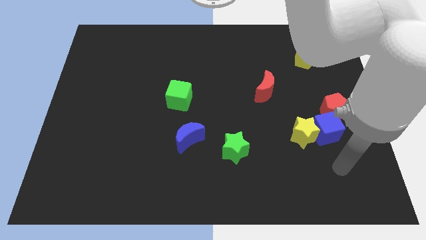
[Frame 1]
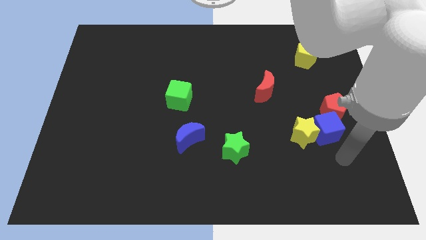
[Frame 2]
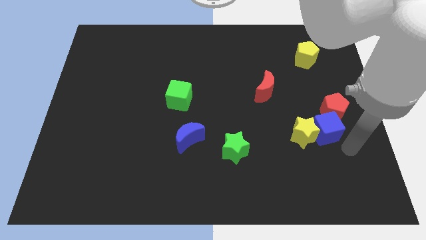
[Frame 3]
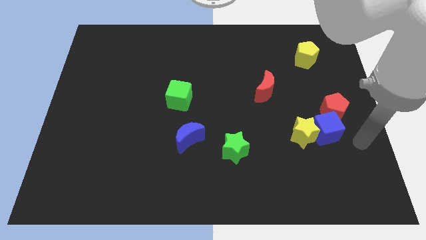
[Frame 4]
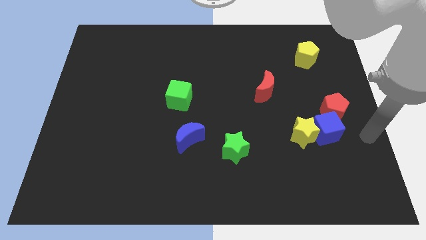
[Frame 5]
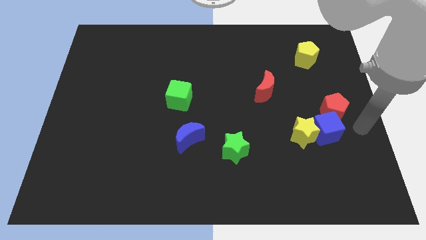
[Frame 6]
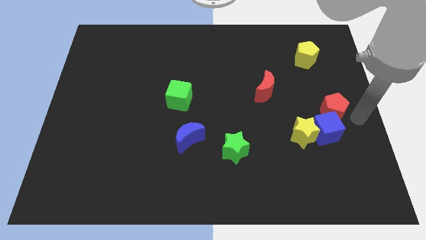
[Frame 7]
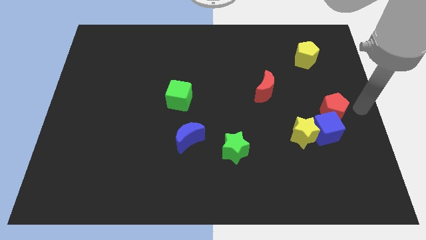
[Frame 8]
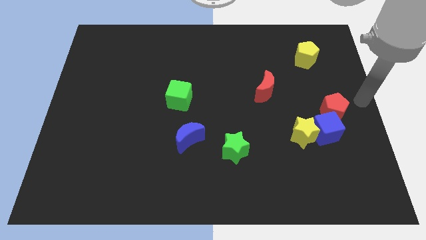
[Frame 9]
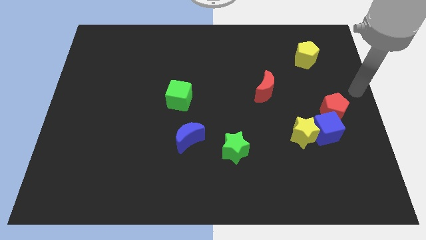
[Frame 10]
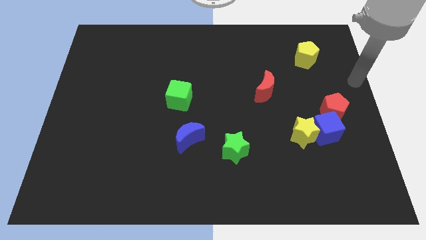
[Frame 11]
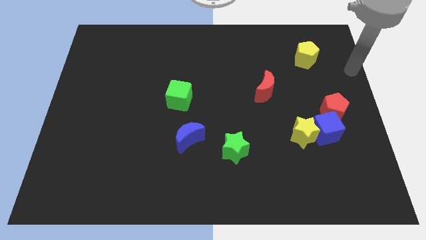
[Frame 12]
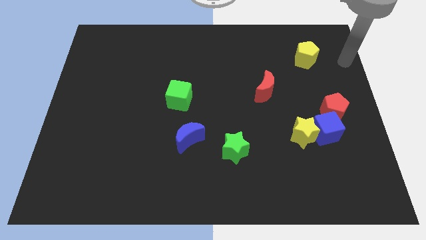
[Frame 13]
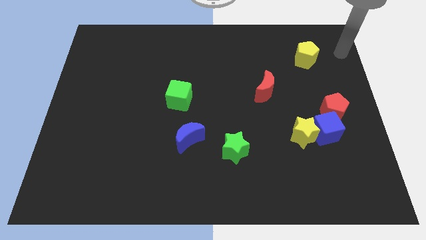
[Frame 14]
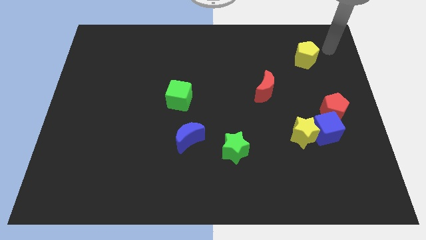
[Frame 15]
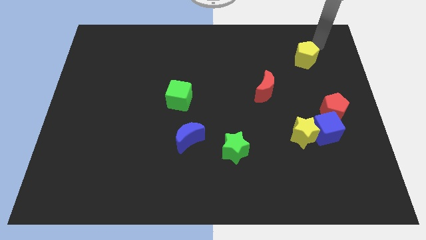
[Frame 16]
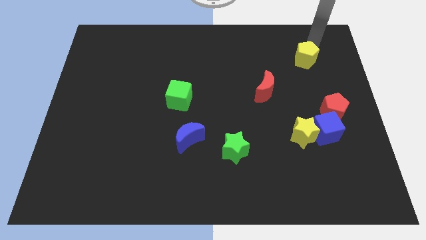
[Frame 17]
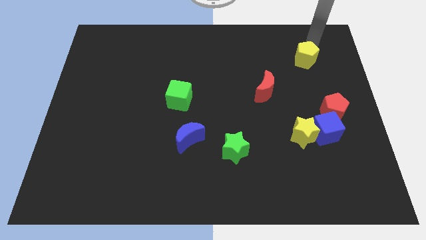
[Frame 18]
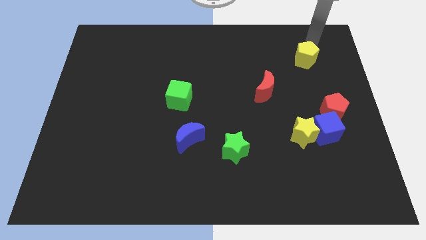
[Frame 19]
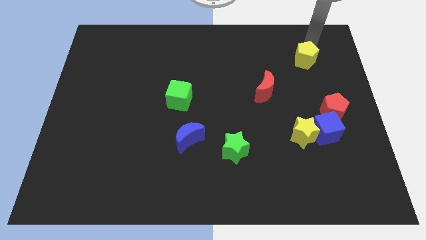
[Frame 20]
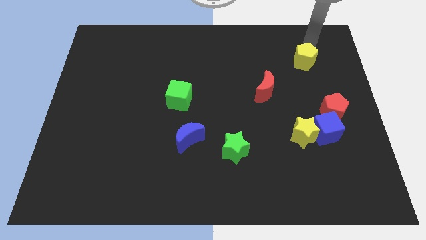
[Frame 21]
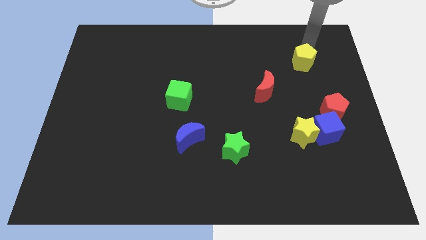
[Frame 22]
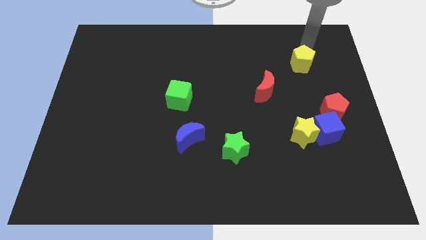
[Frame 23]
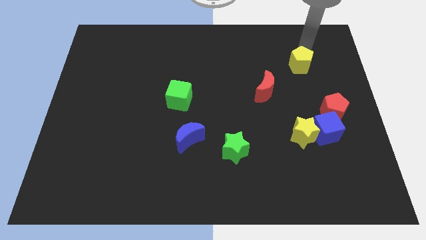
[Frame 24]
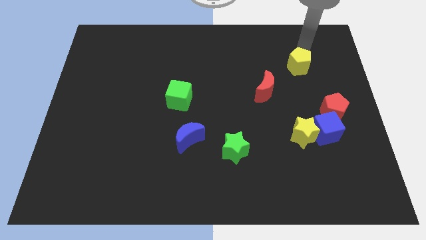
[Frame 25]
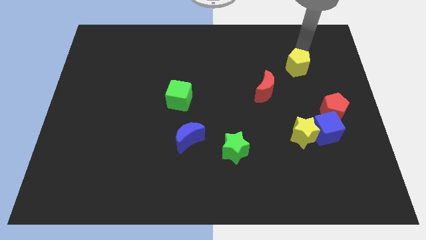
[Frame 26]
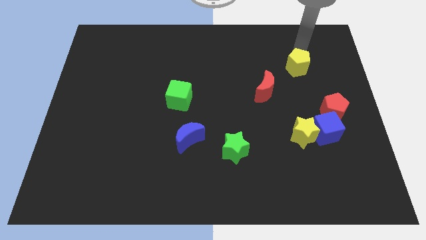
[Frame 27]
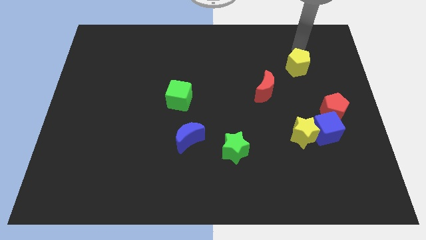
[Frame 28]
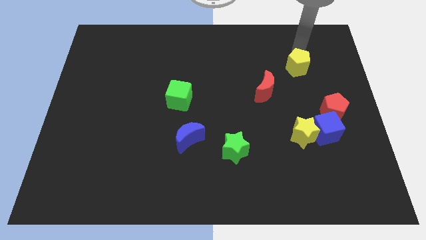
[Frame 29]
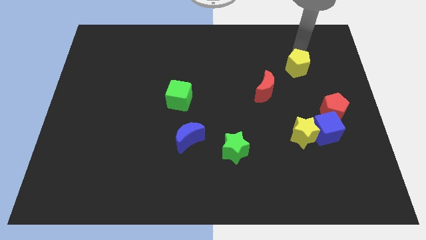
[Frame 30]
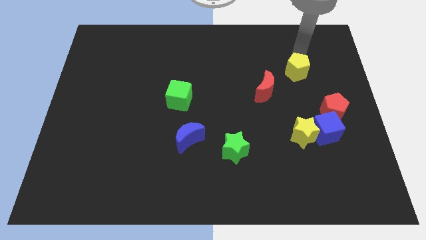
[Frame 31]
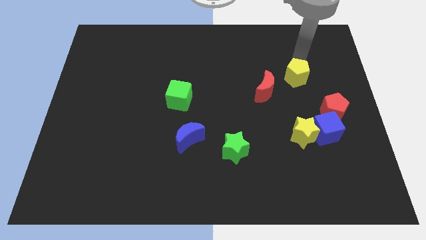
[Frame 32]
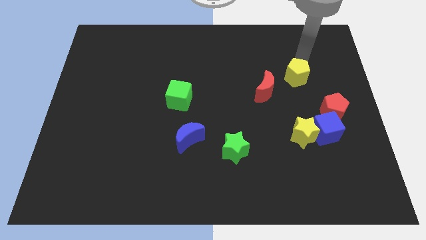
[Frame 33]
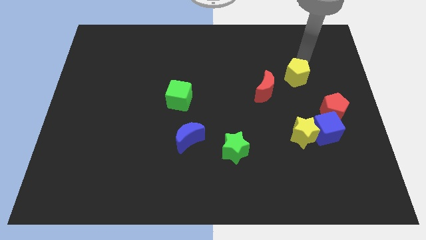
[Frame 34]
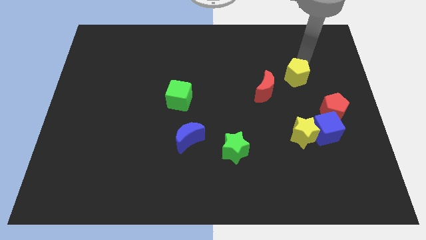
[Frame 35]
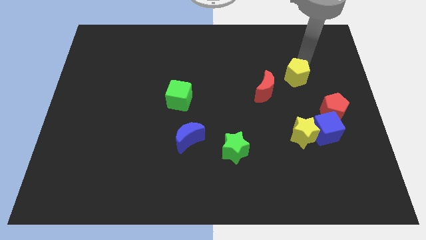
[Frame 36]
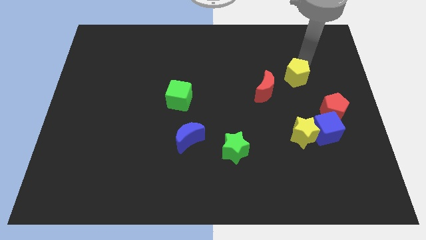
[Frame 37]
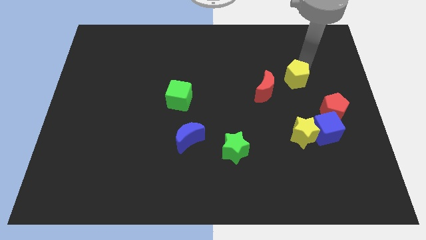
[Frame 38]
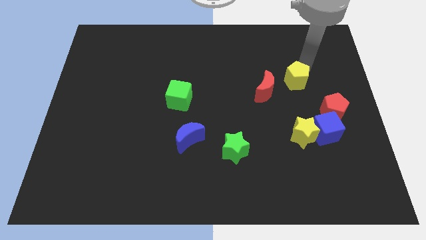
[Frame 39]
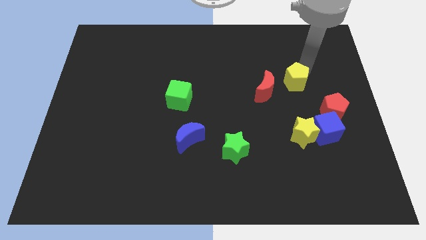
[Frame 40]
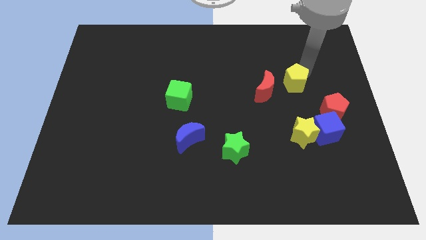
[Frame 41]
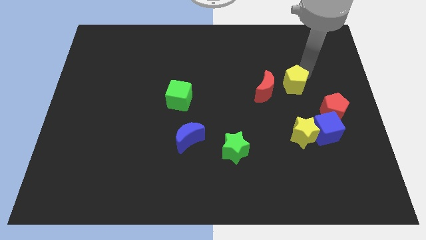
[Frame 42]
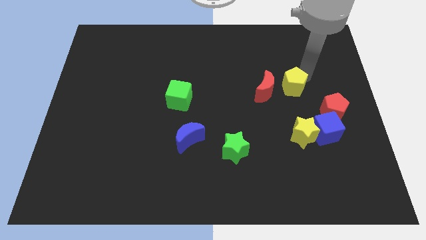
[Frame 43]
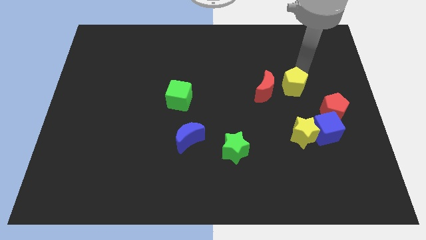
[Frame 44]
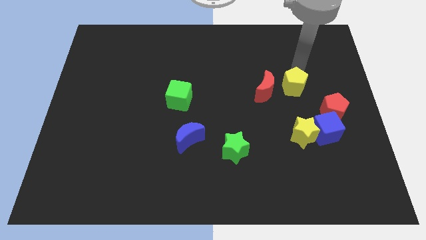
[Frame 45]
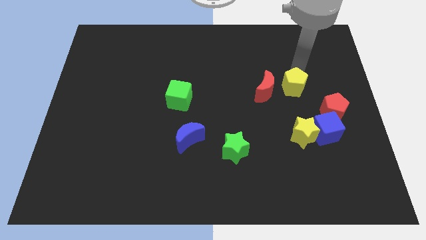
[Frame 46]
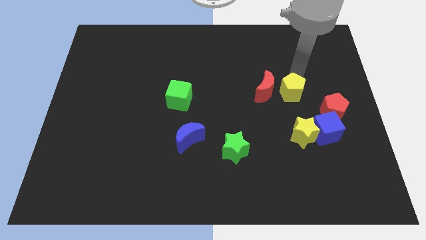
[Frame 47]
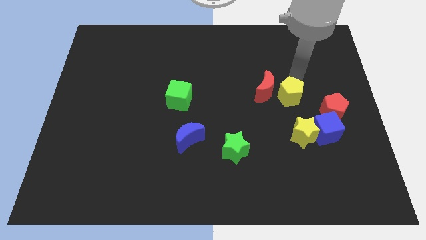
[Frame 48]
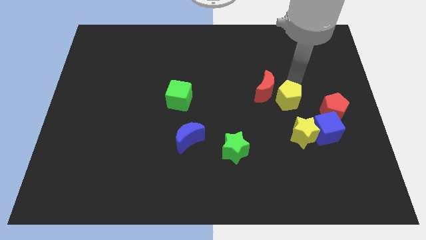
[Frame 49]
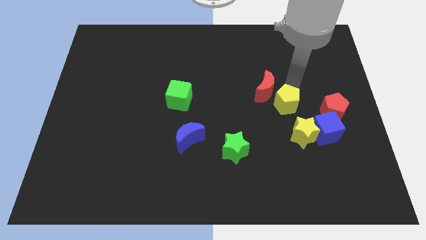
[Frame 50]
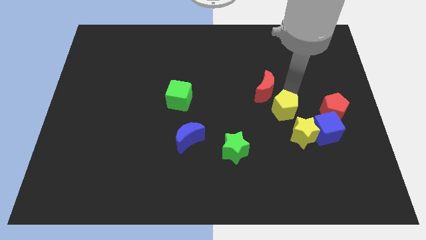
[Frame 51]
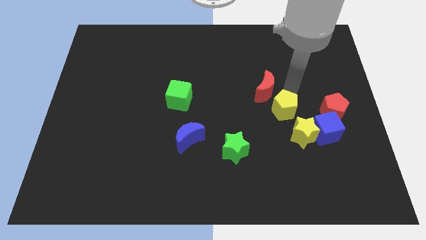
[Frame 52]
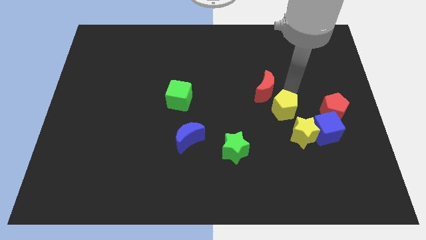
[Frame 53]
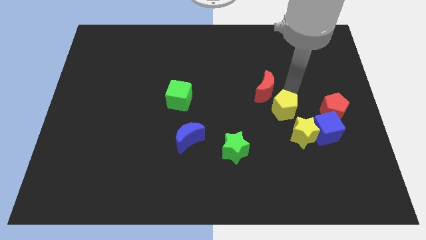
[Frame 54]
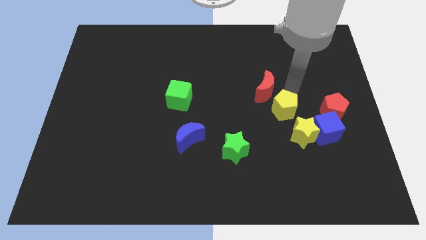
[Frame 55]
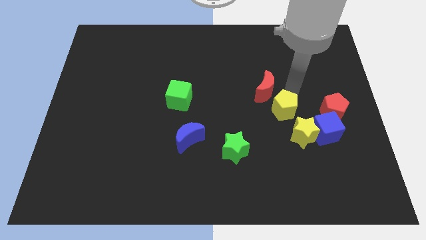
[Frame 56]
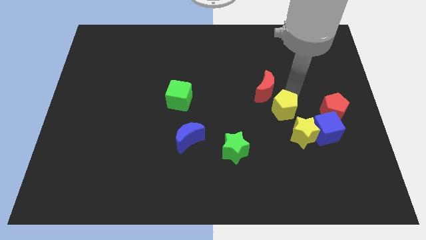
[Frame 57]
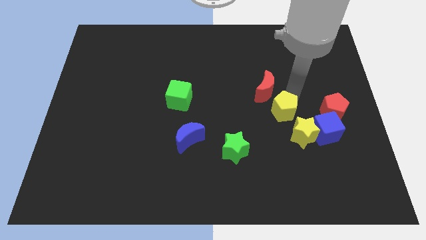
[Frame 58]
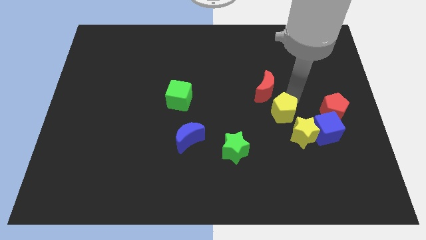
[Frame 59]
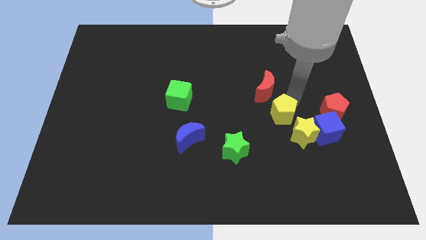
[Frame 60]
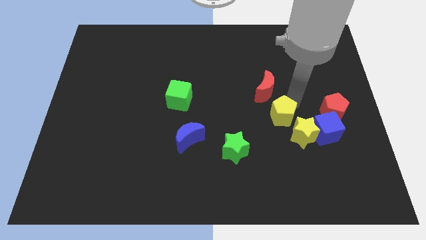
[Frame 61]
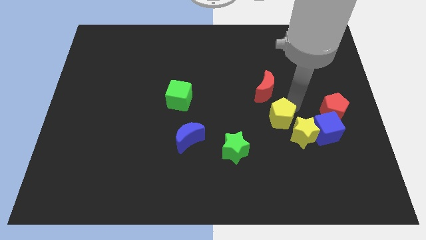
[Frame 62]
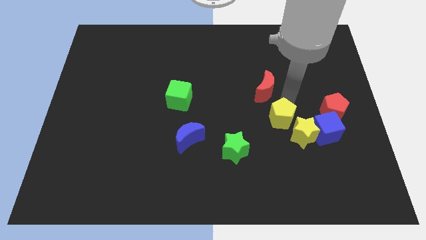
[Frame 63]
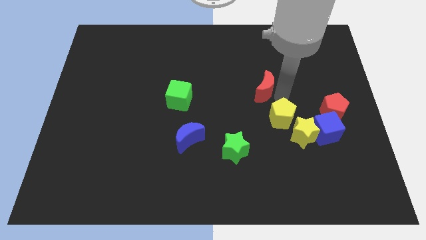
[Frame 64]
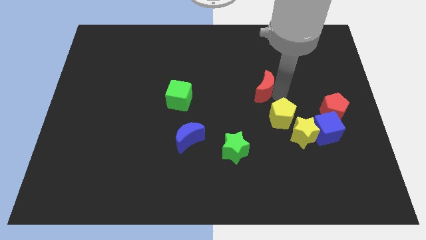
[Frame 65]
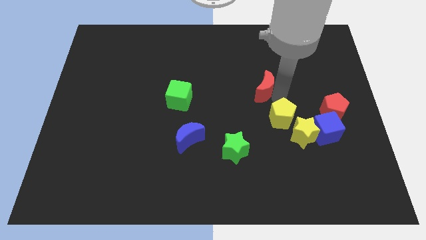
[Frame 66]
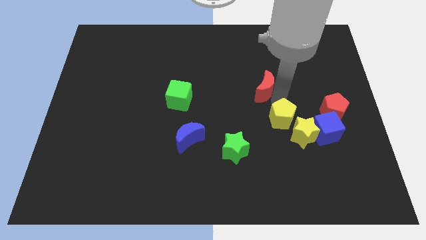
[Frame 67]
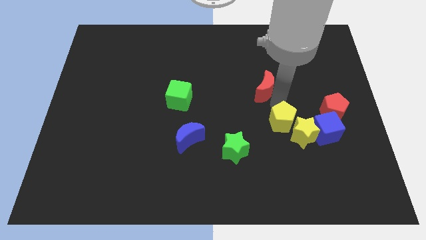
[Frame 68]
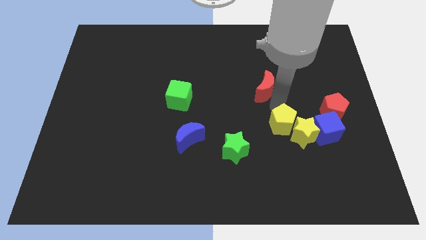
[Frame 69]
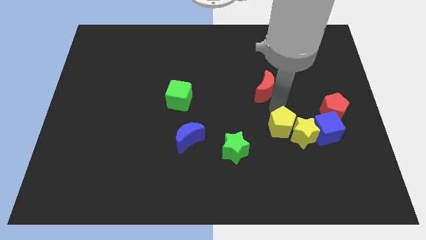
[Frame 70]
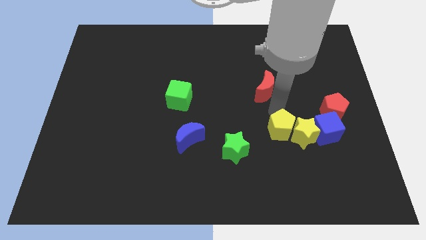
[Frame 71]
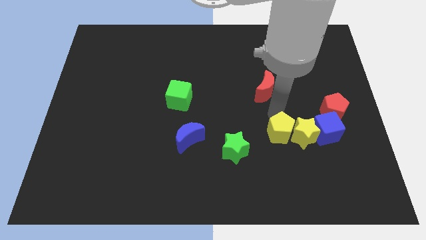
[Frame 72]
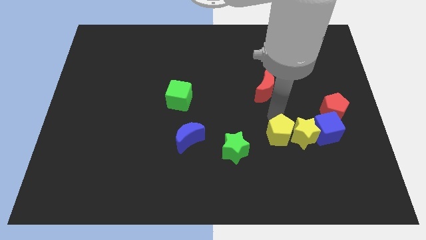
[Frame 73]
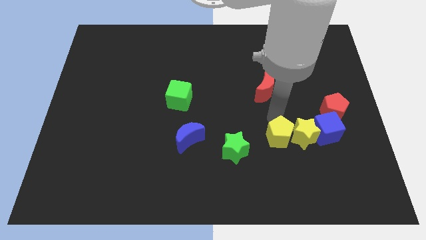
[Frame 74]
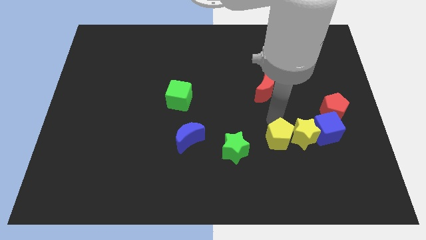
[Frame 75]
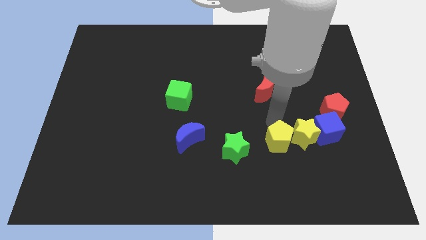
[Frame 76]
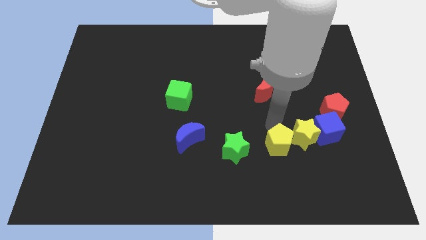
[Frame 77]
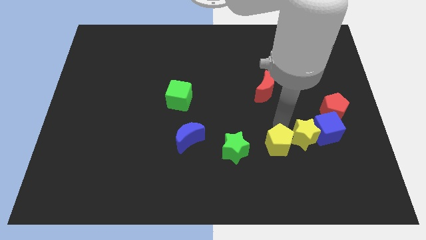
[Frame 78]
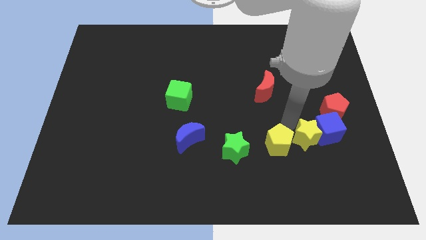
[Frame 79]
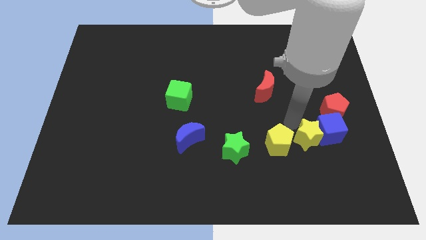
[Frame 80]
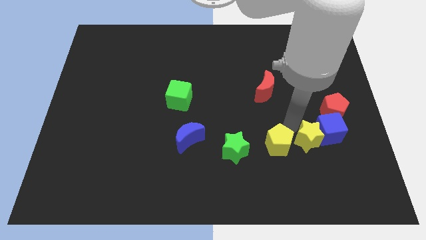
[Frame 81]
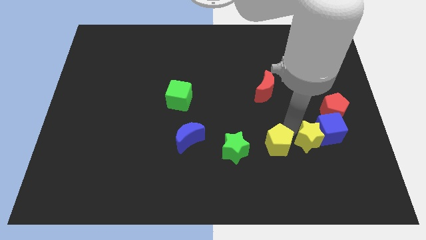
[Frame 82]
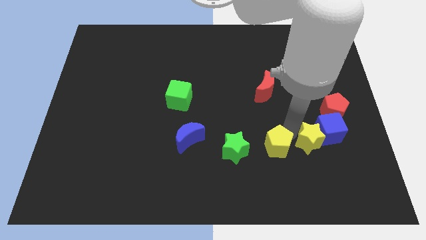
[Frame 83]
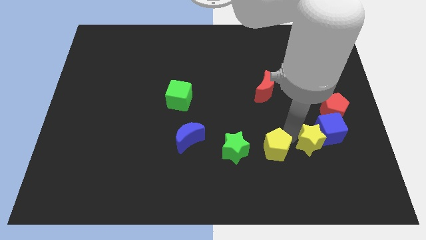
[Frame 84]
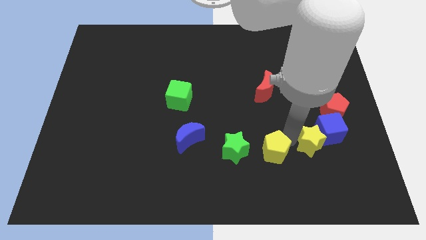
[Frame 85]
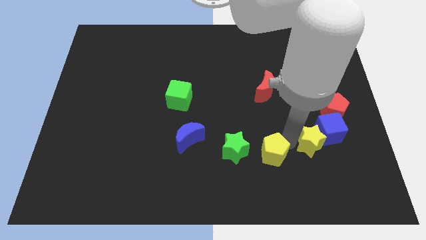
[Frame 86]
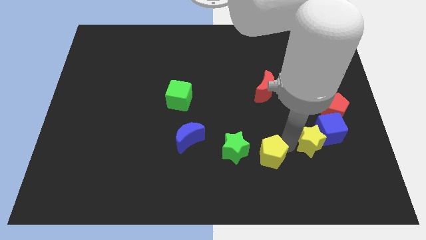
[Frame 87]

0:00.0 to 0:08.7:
put the yellow pentagon to the bottom right of the green star
